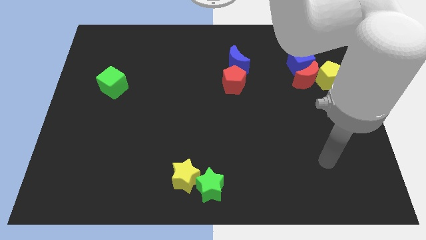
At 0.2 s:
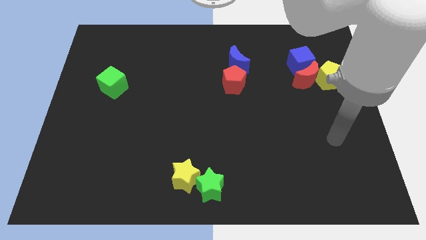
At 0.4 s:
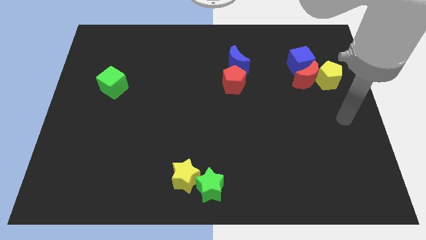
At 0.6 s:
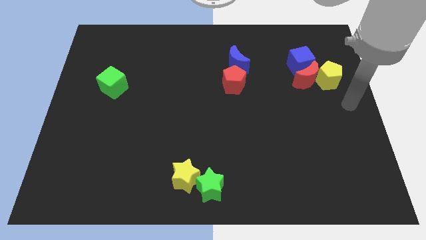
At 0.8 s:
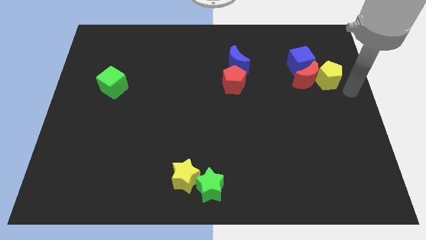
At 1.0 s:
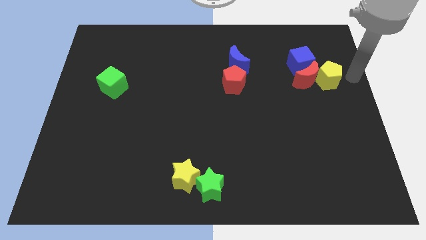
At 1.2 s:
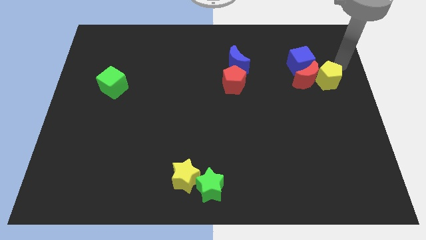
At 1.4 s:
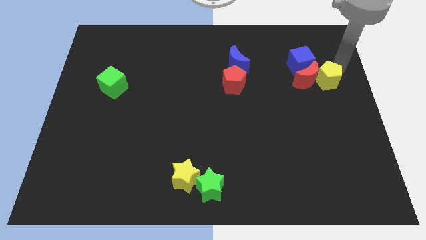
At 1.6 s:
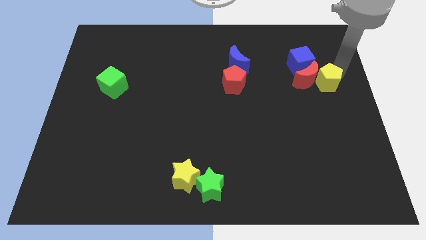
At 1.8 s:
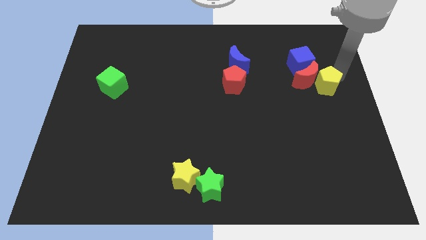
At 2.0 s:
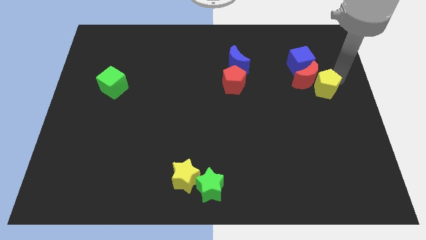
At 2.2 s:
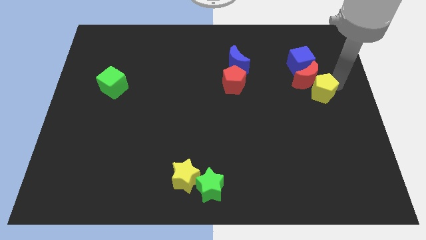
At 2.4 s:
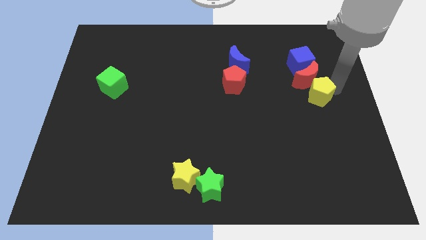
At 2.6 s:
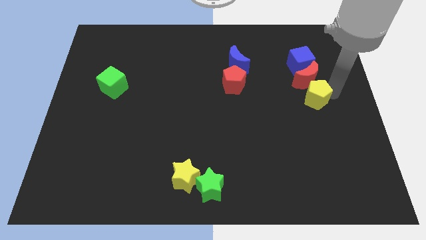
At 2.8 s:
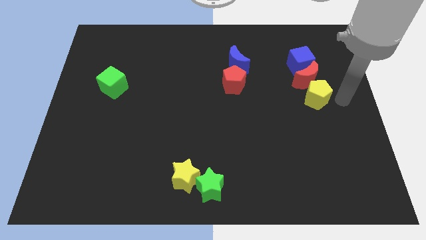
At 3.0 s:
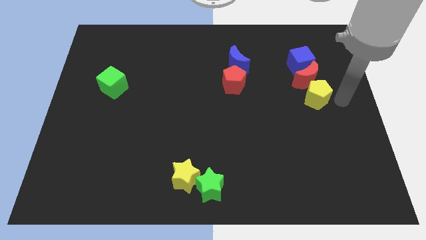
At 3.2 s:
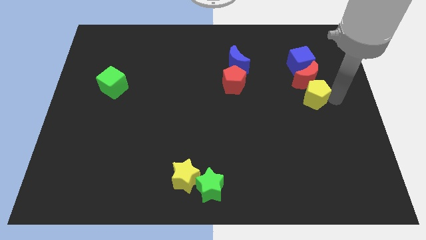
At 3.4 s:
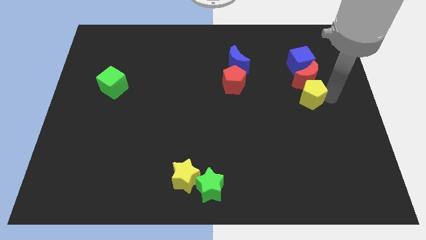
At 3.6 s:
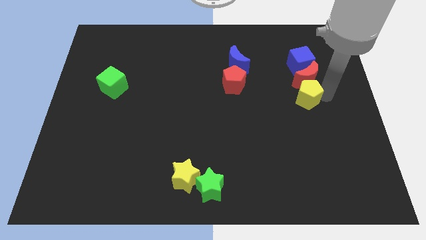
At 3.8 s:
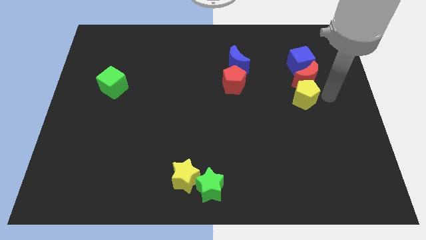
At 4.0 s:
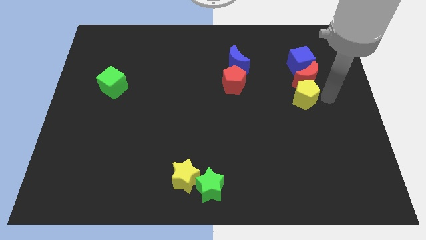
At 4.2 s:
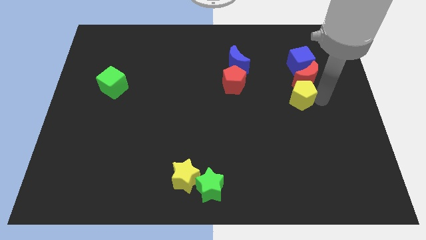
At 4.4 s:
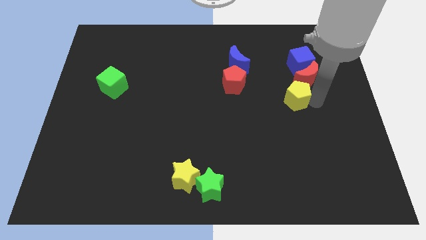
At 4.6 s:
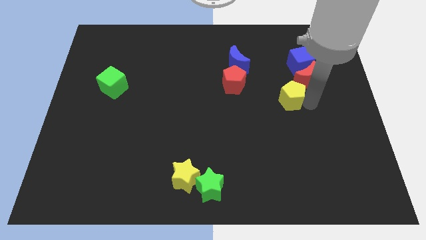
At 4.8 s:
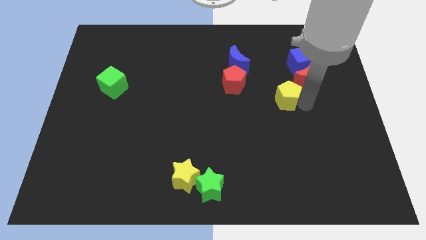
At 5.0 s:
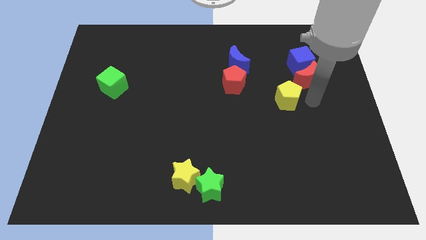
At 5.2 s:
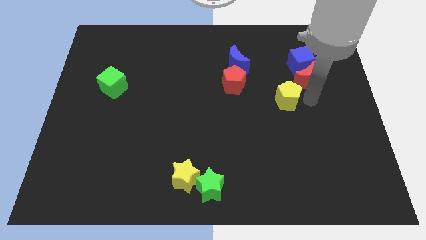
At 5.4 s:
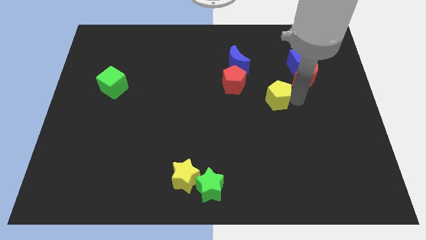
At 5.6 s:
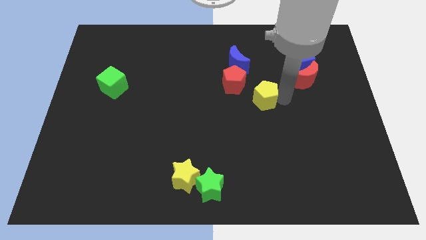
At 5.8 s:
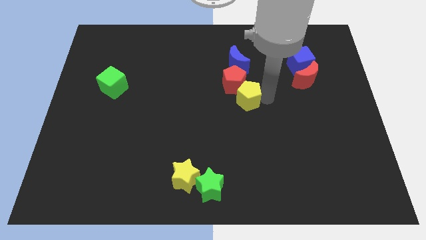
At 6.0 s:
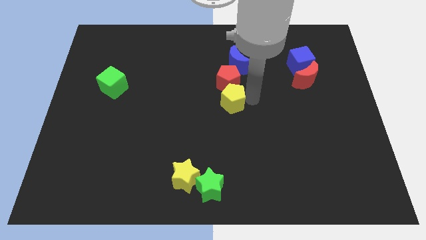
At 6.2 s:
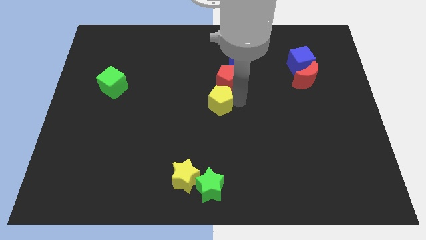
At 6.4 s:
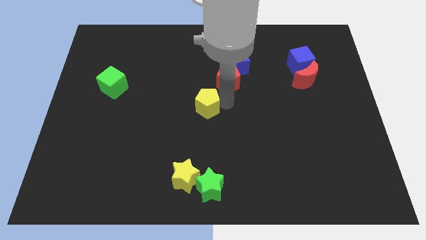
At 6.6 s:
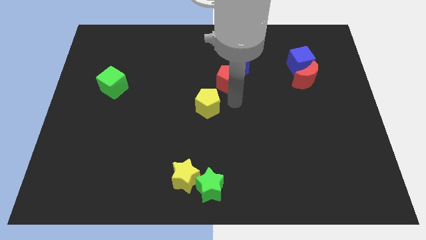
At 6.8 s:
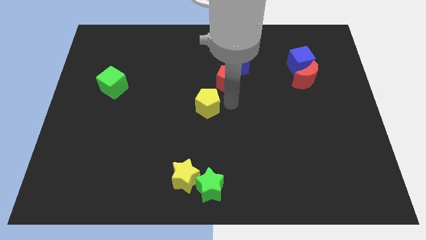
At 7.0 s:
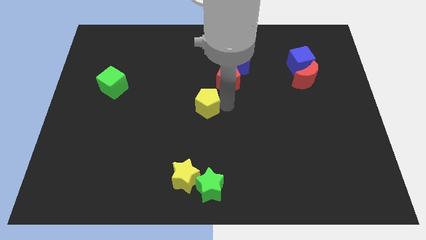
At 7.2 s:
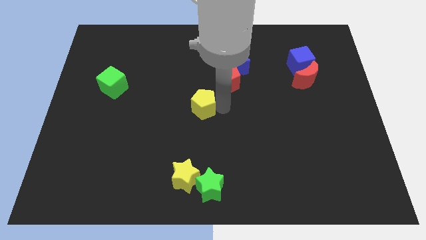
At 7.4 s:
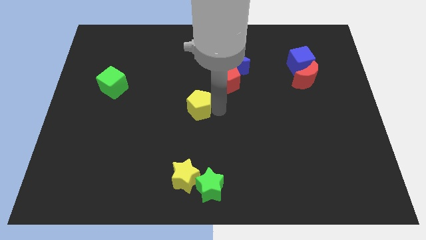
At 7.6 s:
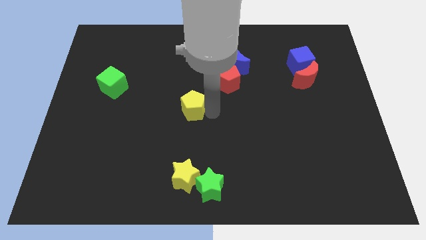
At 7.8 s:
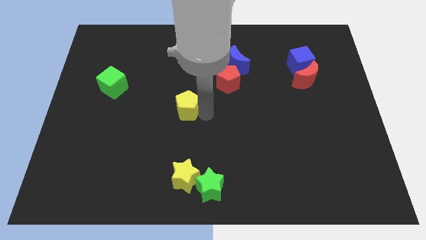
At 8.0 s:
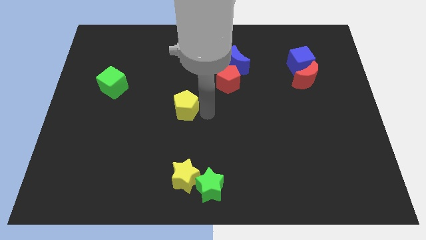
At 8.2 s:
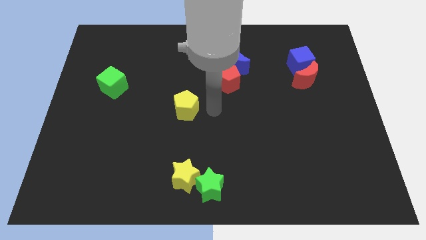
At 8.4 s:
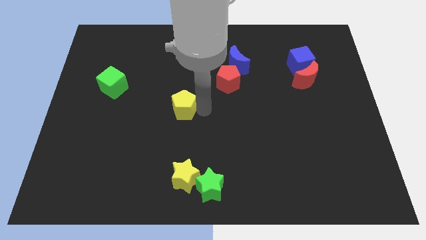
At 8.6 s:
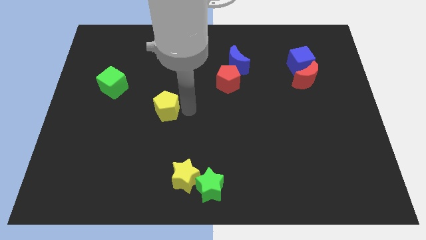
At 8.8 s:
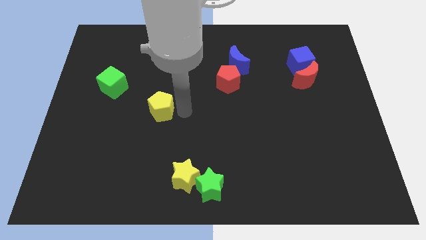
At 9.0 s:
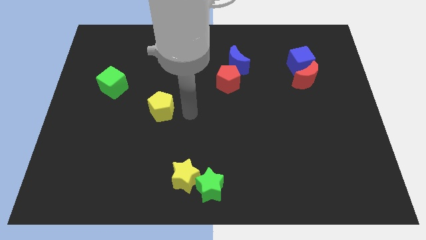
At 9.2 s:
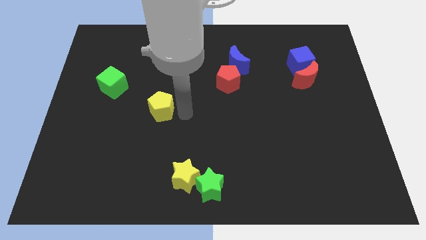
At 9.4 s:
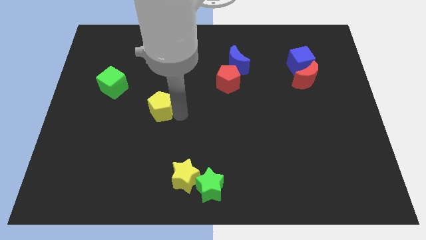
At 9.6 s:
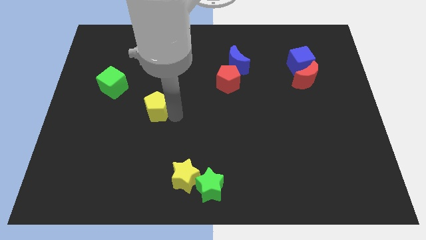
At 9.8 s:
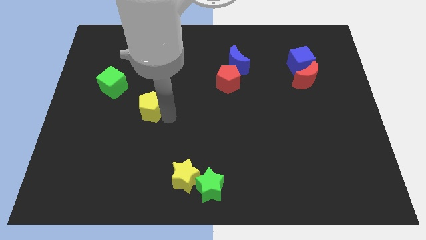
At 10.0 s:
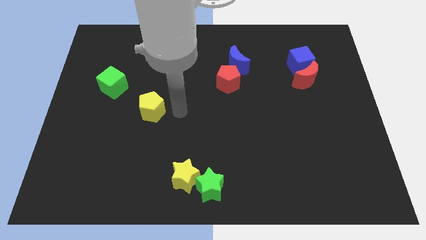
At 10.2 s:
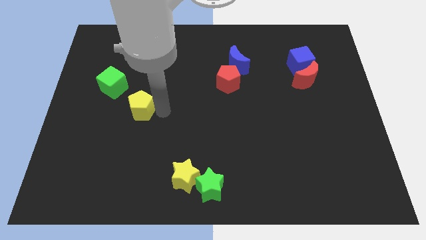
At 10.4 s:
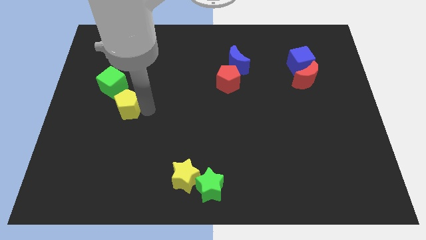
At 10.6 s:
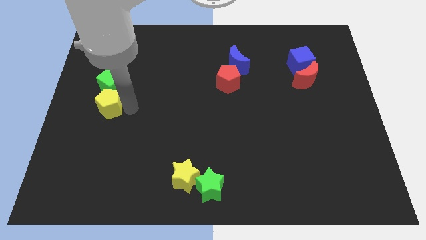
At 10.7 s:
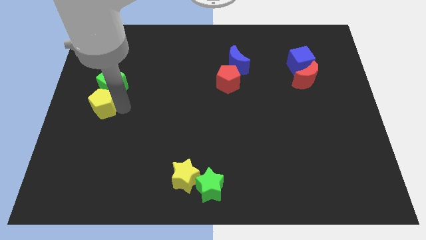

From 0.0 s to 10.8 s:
move the yellow pentagon to the left side

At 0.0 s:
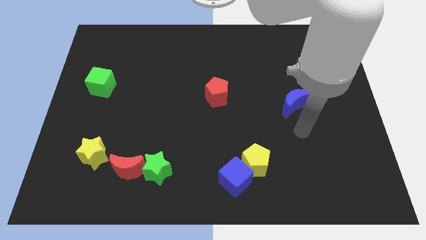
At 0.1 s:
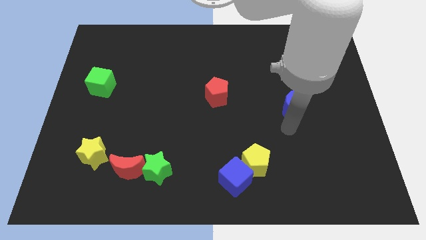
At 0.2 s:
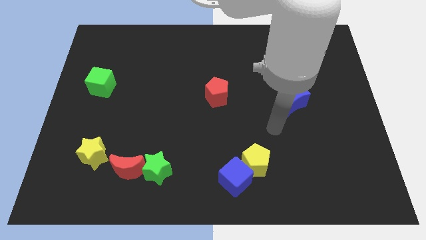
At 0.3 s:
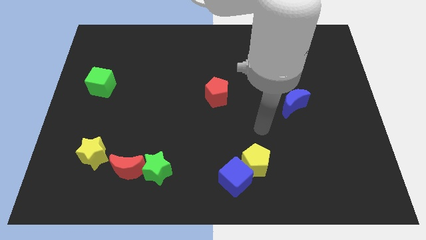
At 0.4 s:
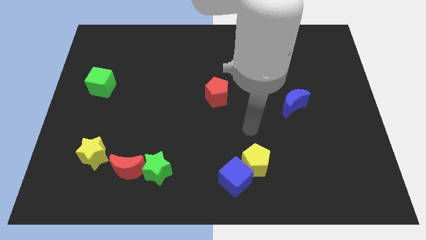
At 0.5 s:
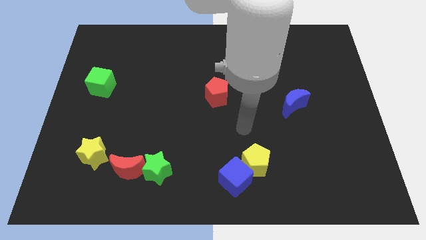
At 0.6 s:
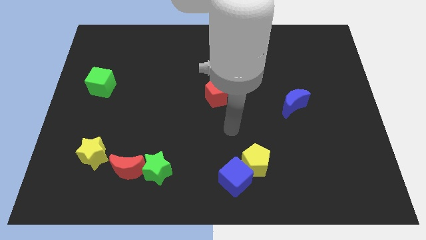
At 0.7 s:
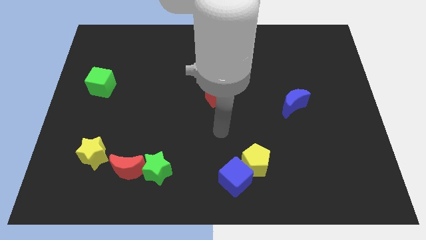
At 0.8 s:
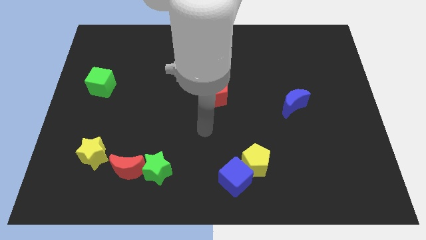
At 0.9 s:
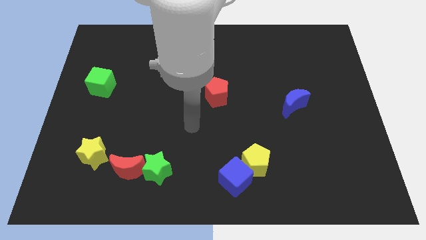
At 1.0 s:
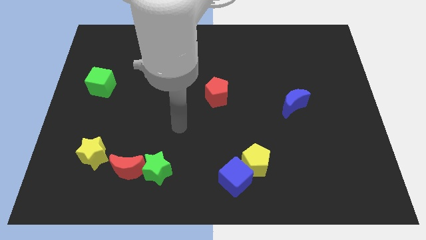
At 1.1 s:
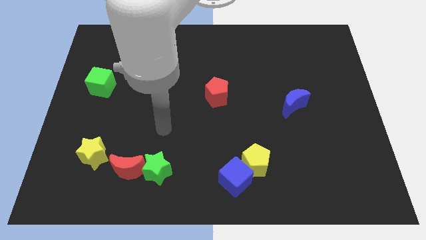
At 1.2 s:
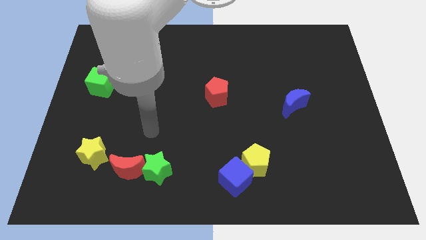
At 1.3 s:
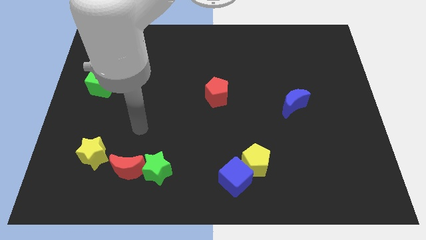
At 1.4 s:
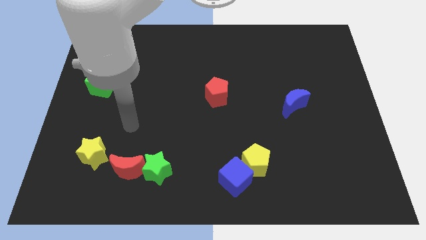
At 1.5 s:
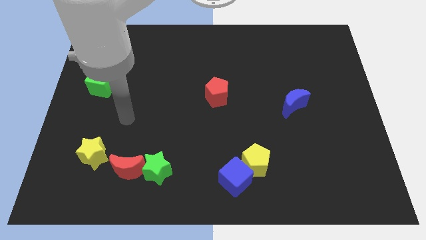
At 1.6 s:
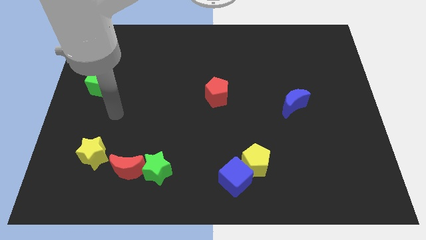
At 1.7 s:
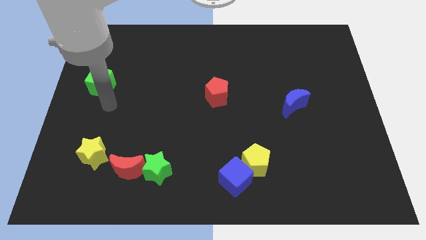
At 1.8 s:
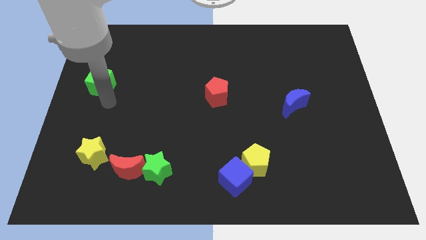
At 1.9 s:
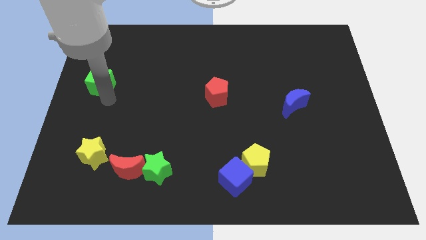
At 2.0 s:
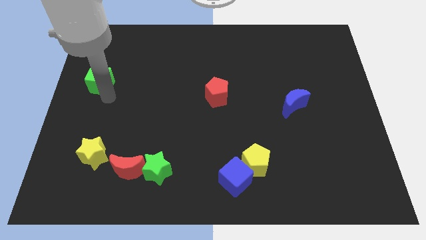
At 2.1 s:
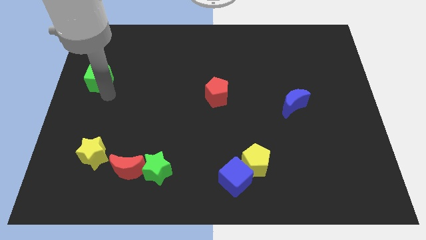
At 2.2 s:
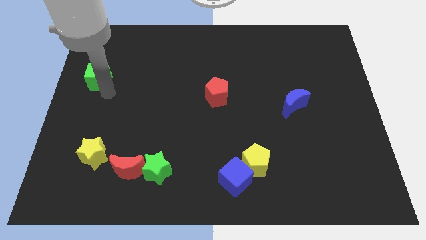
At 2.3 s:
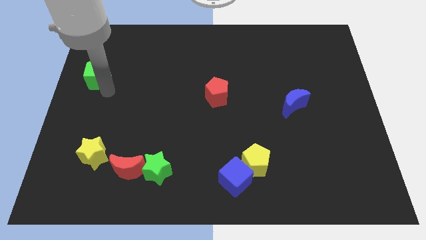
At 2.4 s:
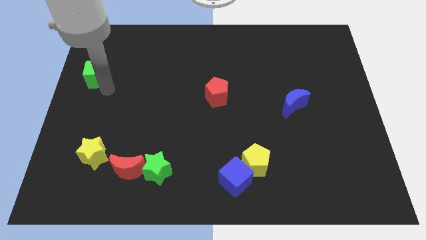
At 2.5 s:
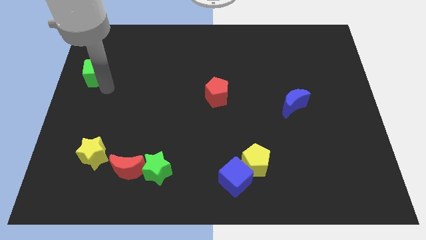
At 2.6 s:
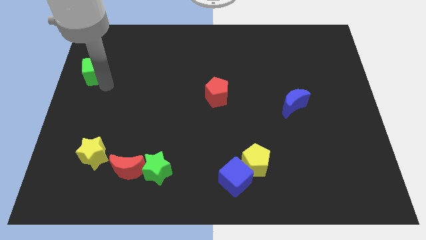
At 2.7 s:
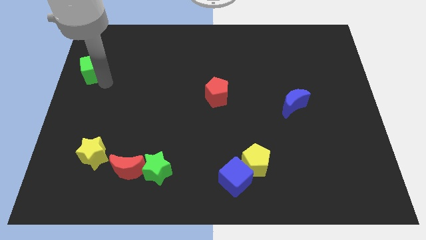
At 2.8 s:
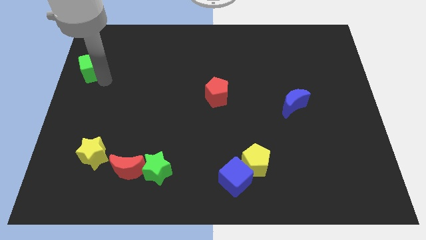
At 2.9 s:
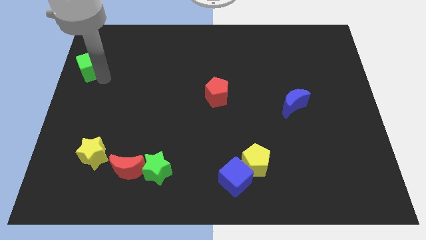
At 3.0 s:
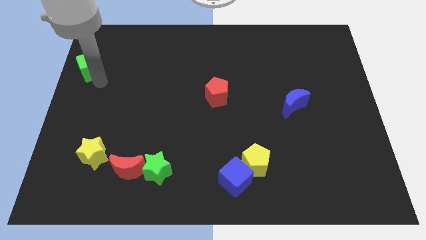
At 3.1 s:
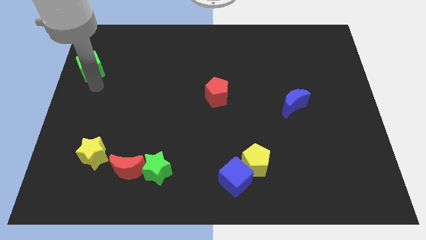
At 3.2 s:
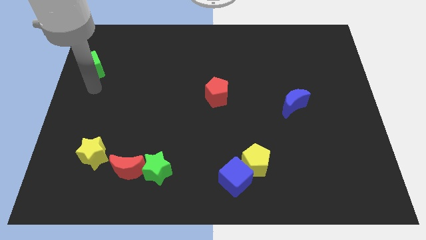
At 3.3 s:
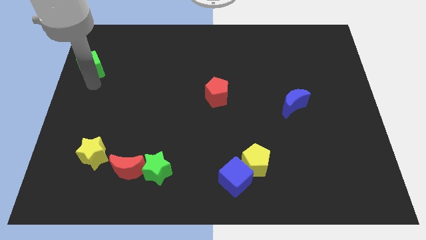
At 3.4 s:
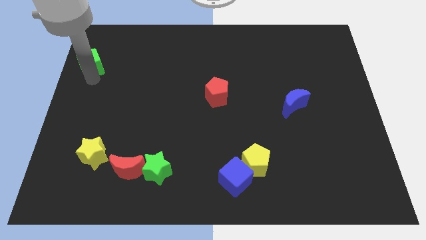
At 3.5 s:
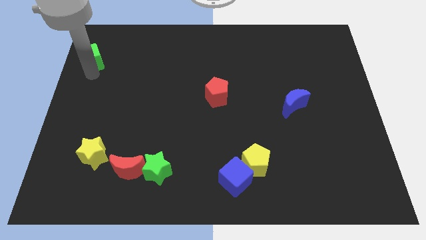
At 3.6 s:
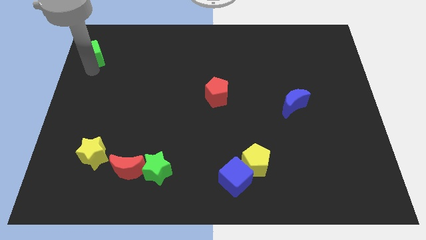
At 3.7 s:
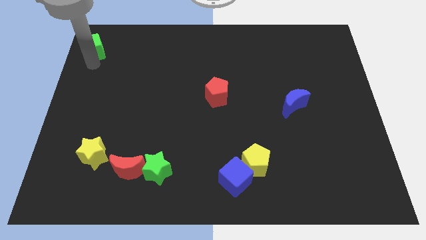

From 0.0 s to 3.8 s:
put the green cube to the top left
